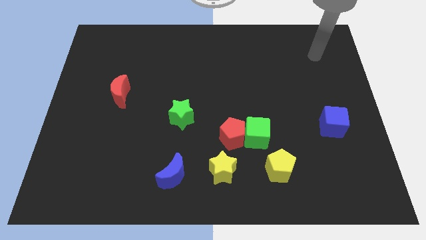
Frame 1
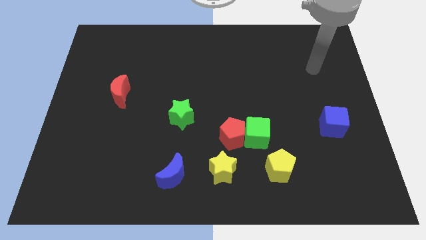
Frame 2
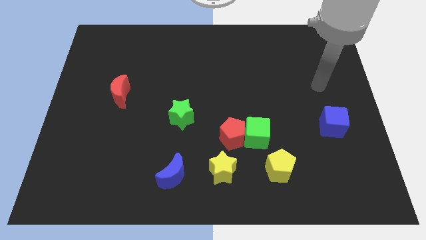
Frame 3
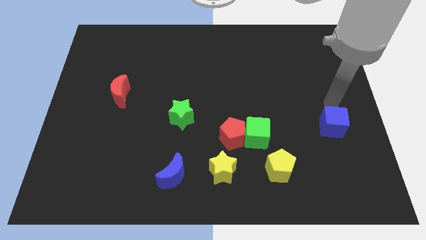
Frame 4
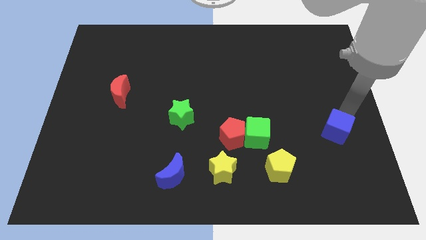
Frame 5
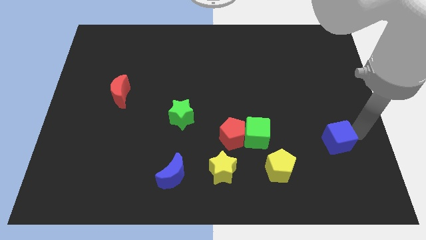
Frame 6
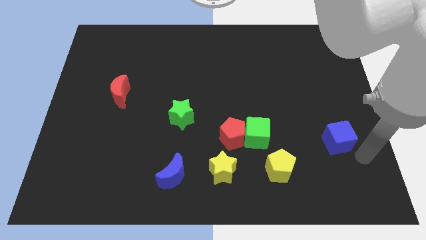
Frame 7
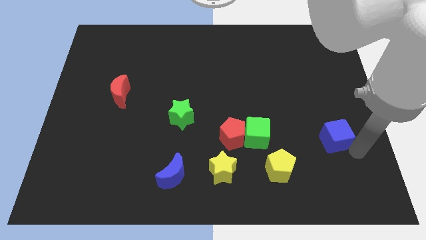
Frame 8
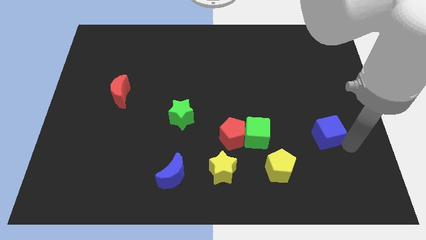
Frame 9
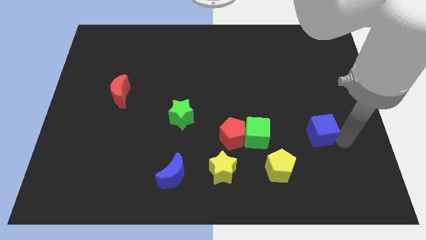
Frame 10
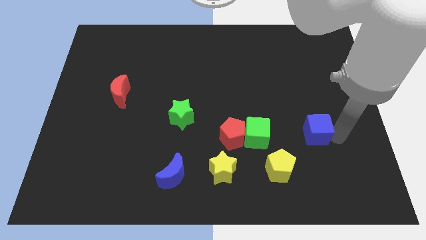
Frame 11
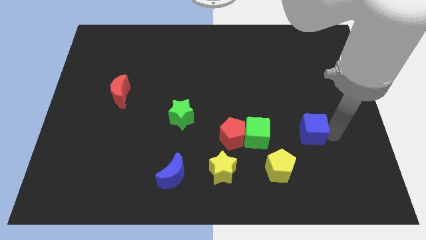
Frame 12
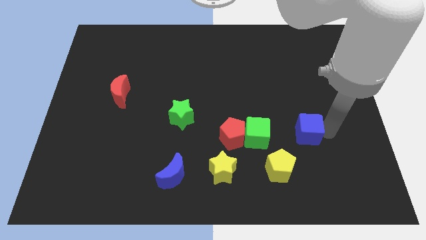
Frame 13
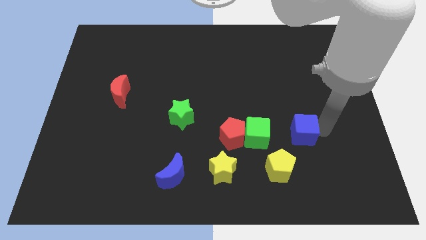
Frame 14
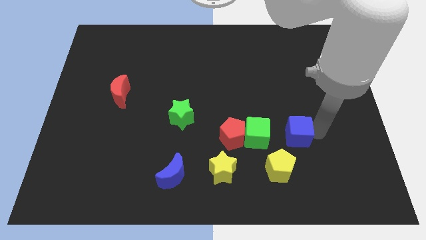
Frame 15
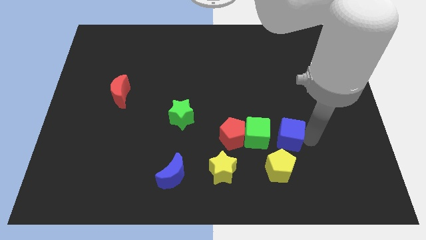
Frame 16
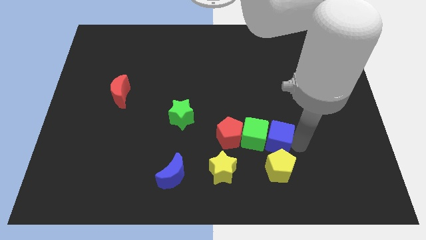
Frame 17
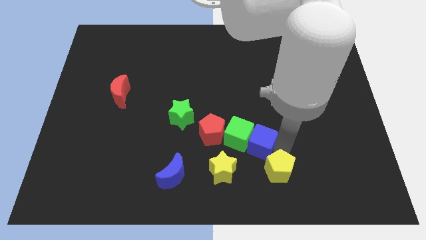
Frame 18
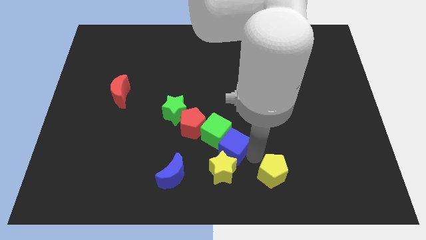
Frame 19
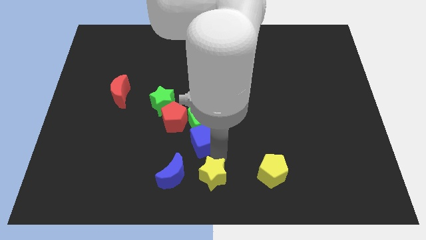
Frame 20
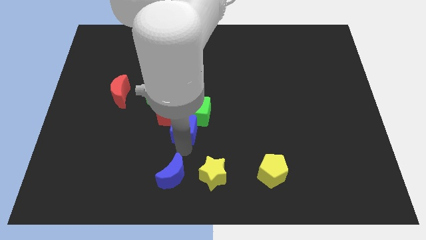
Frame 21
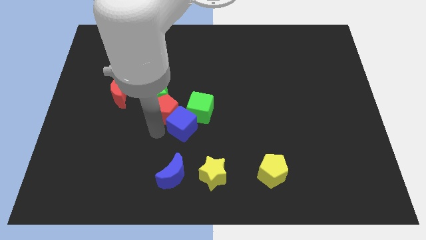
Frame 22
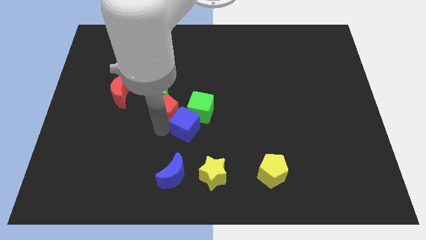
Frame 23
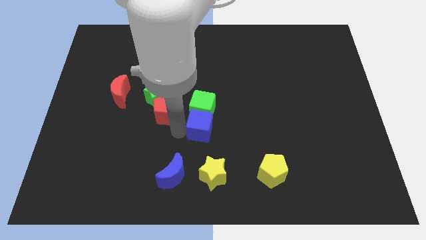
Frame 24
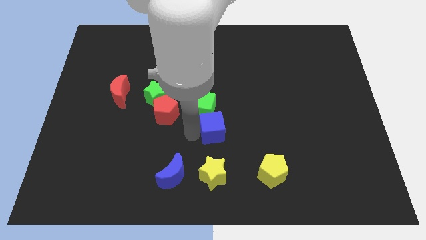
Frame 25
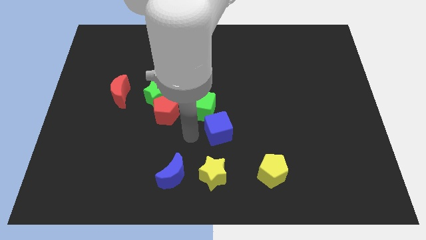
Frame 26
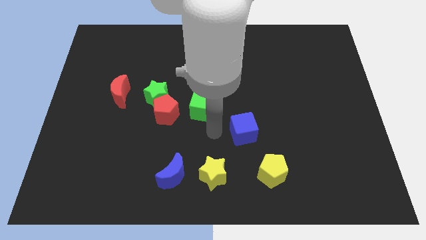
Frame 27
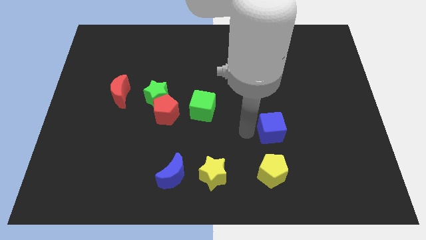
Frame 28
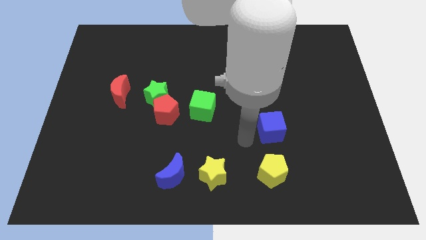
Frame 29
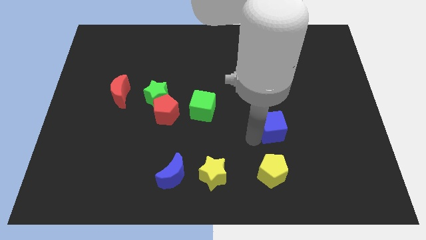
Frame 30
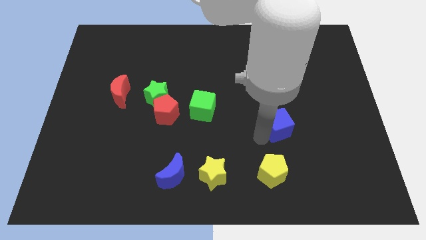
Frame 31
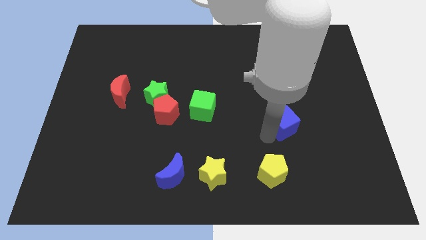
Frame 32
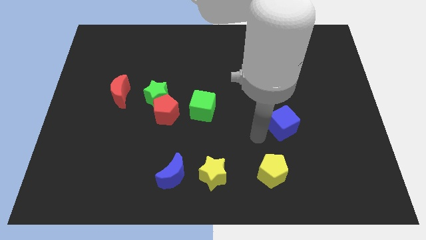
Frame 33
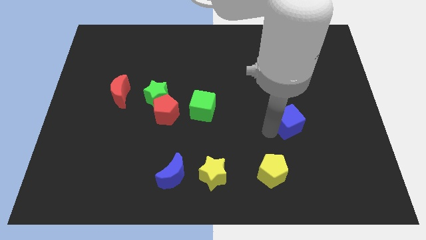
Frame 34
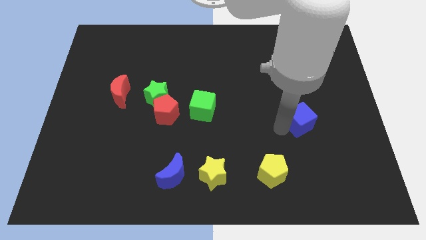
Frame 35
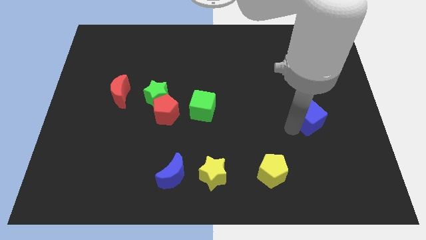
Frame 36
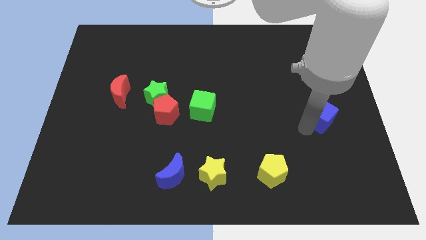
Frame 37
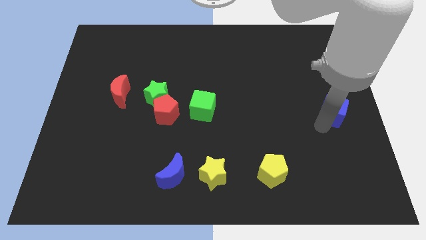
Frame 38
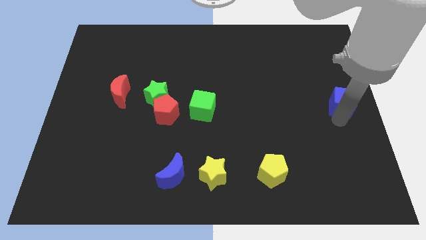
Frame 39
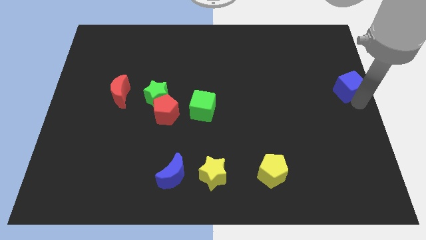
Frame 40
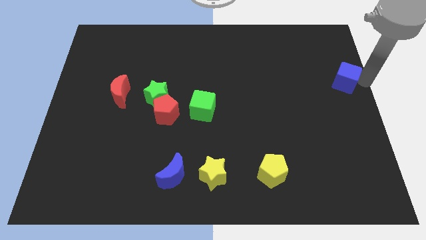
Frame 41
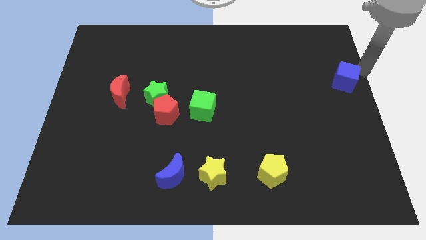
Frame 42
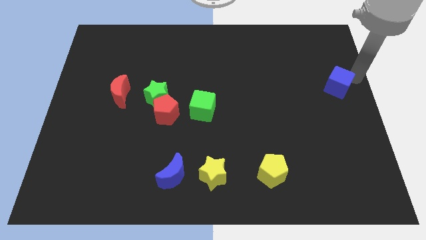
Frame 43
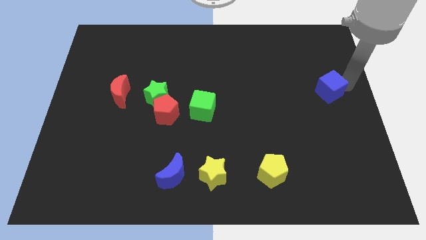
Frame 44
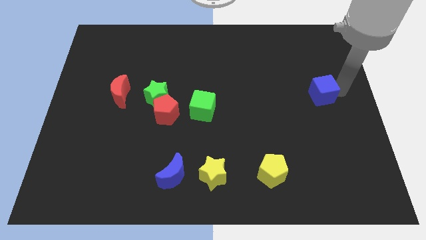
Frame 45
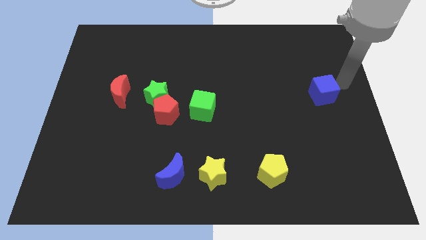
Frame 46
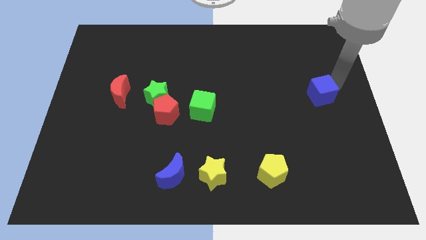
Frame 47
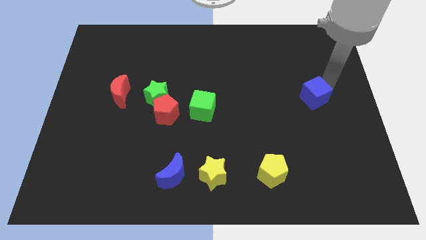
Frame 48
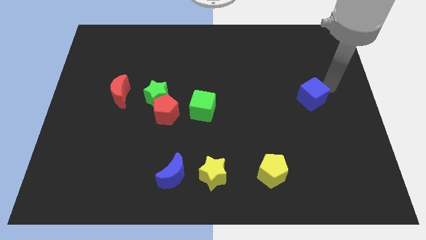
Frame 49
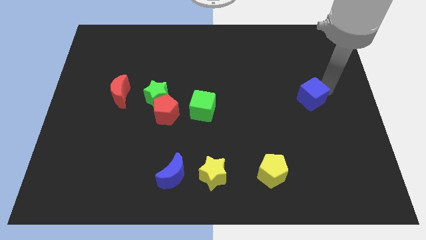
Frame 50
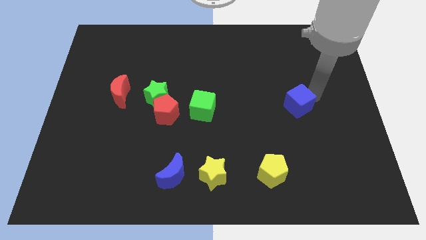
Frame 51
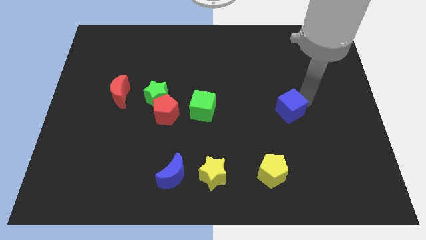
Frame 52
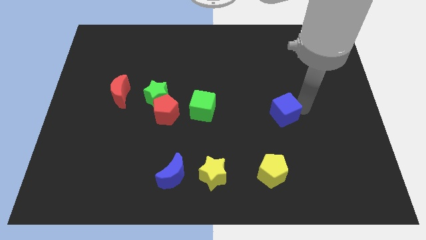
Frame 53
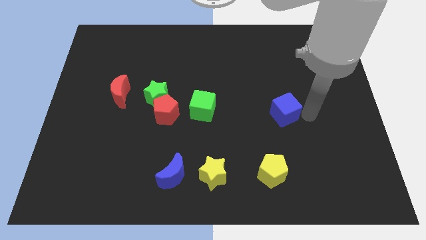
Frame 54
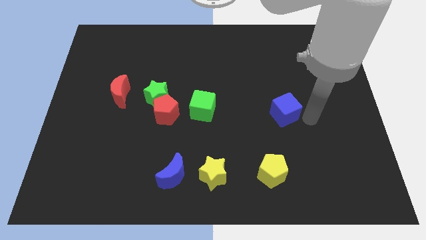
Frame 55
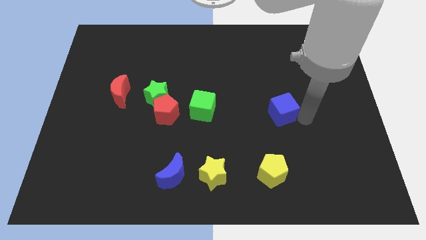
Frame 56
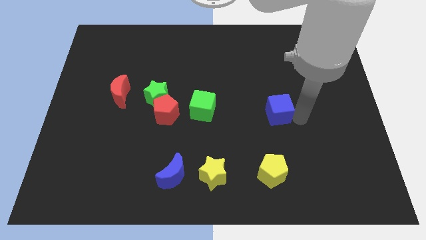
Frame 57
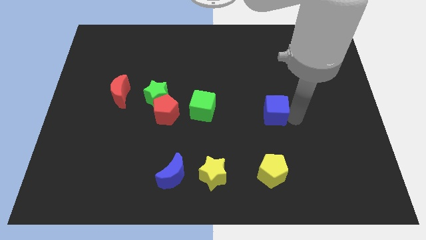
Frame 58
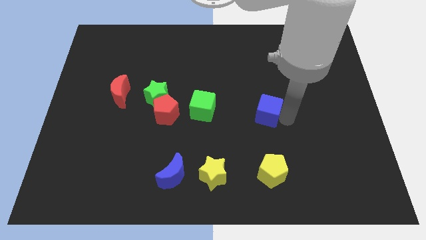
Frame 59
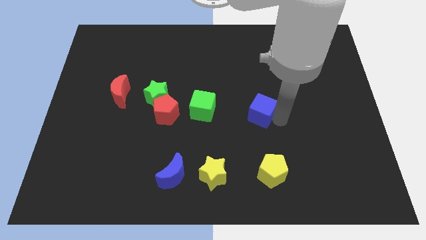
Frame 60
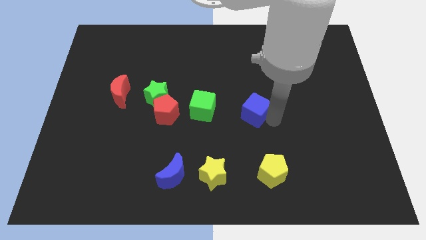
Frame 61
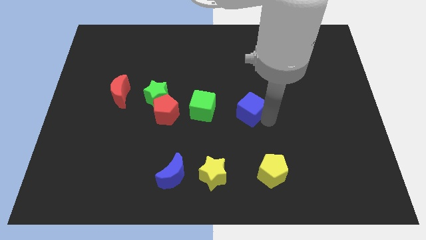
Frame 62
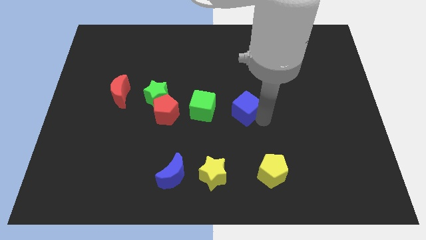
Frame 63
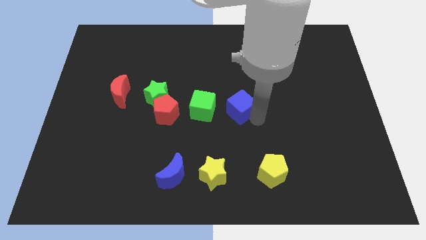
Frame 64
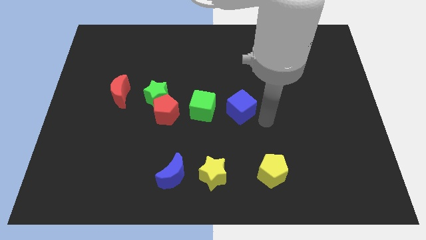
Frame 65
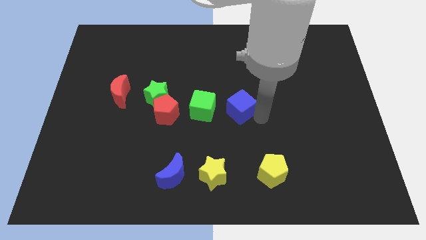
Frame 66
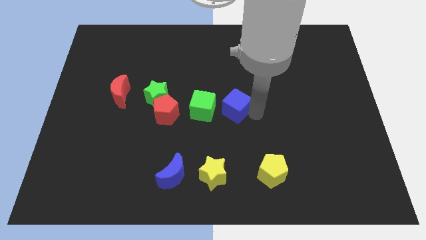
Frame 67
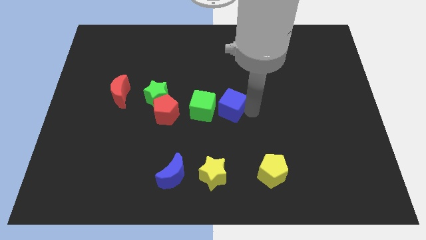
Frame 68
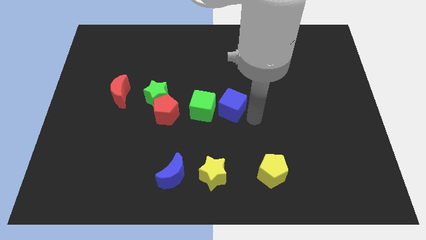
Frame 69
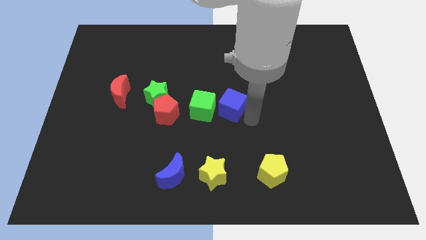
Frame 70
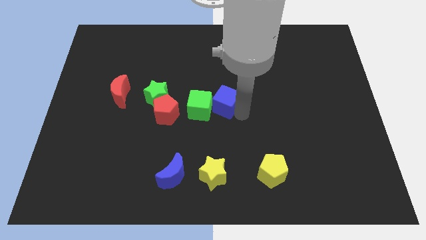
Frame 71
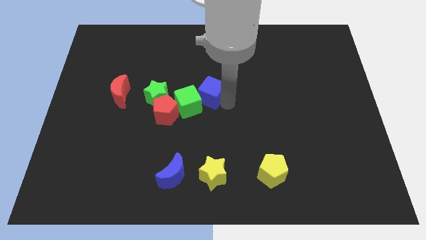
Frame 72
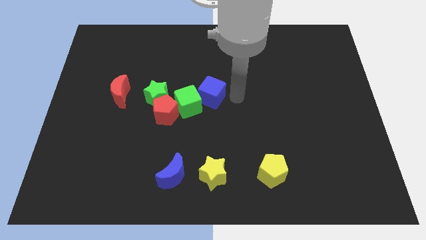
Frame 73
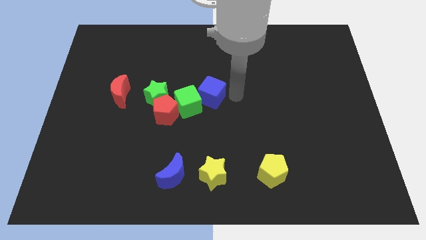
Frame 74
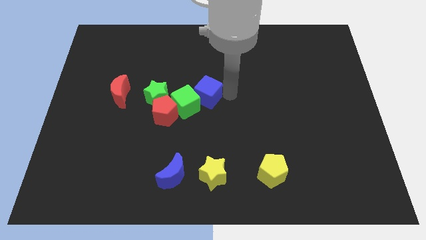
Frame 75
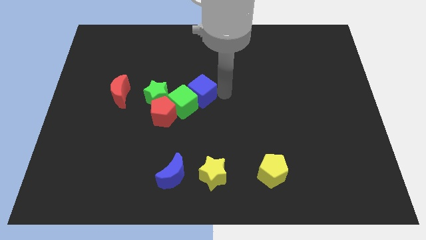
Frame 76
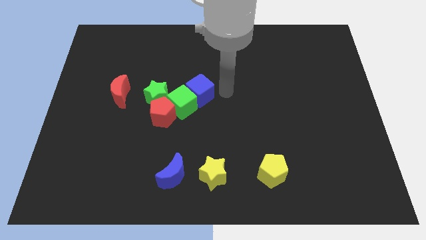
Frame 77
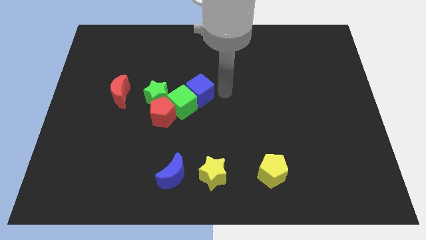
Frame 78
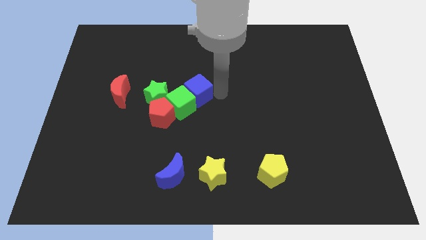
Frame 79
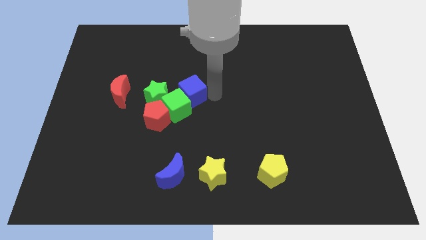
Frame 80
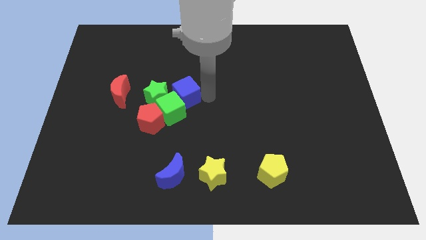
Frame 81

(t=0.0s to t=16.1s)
put the blue cube to the right of the red moon
